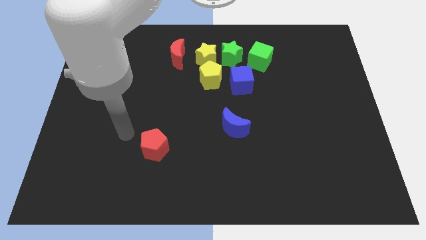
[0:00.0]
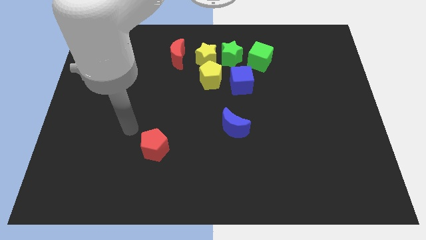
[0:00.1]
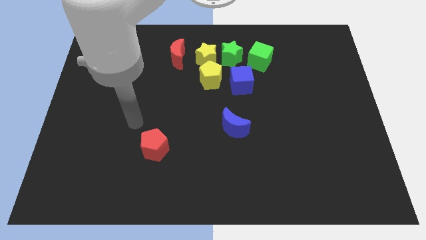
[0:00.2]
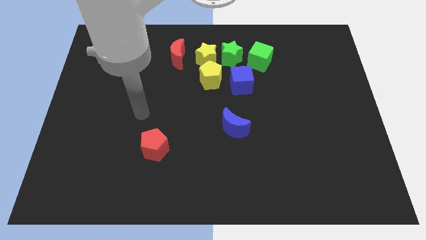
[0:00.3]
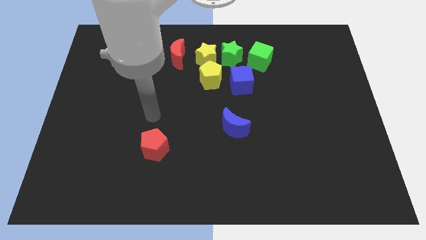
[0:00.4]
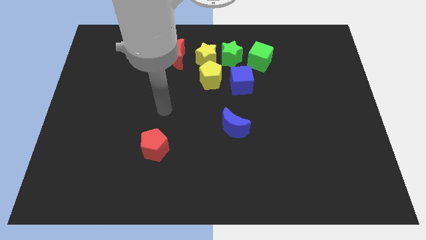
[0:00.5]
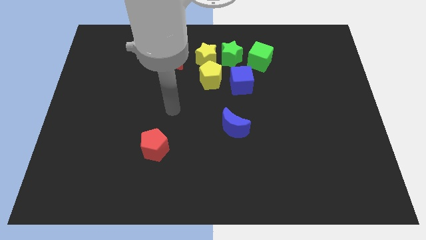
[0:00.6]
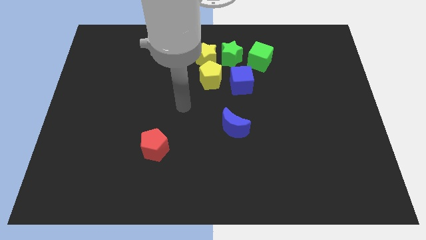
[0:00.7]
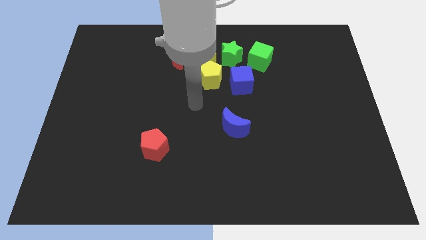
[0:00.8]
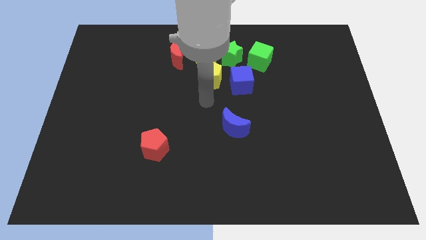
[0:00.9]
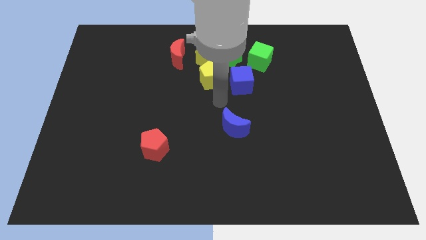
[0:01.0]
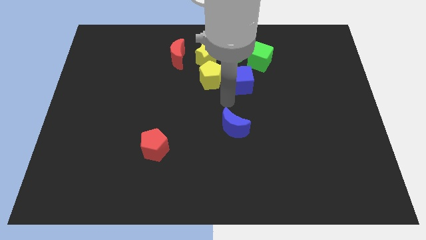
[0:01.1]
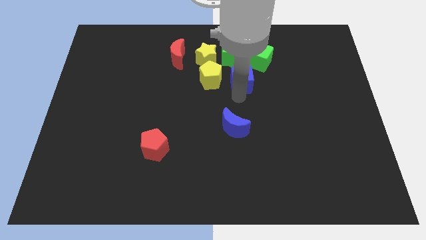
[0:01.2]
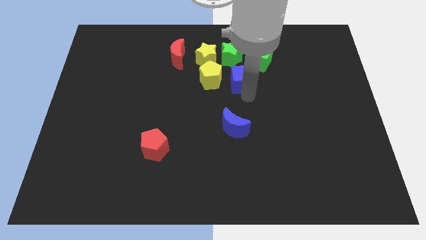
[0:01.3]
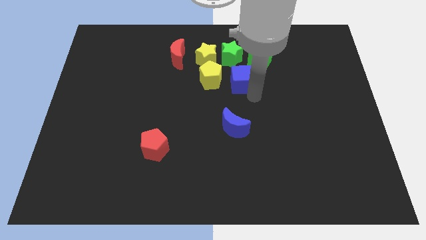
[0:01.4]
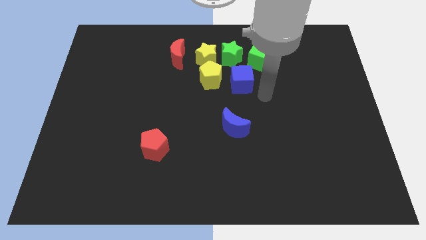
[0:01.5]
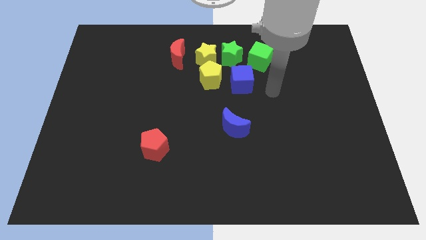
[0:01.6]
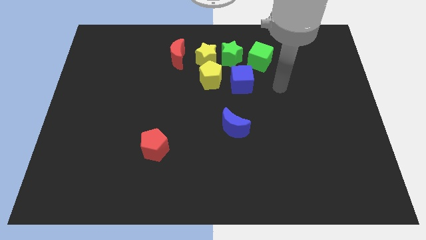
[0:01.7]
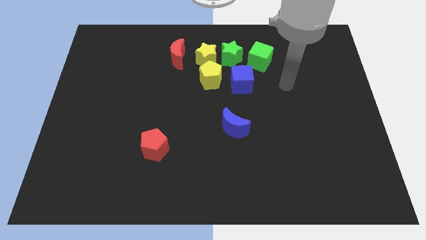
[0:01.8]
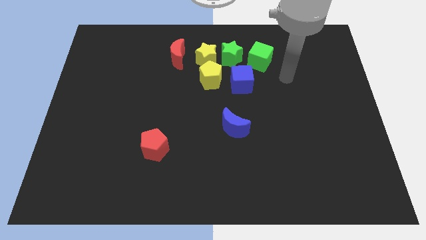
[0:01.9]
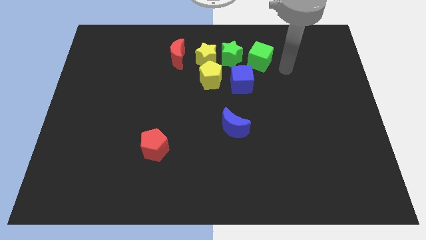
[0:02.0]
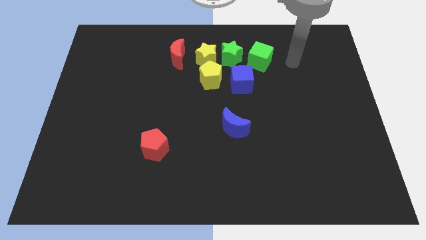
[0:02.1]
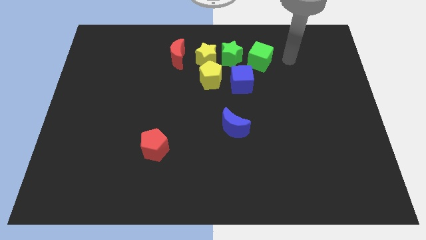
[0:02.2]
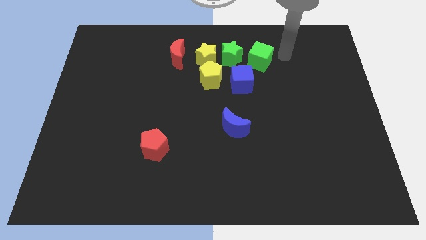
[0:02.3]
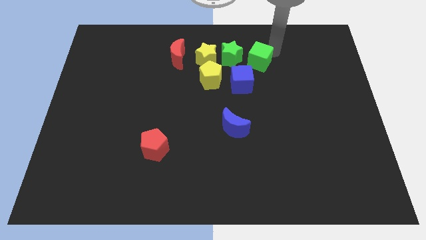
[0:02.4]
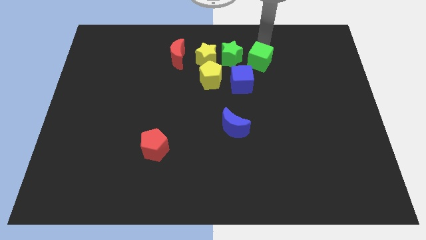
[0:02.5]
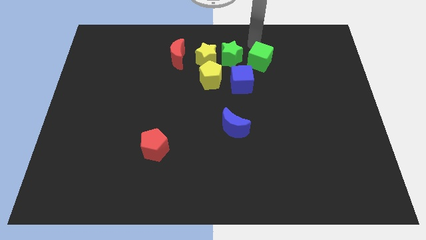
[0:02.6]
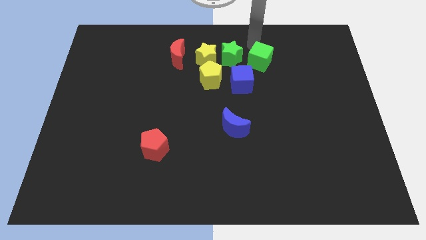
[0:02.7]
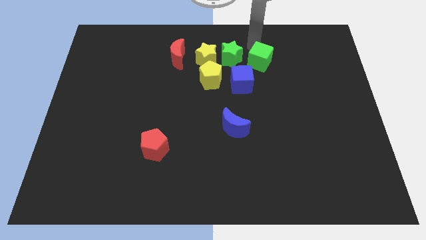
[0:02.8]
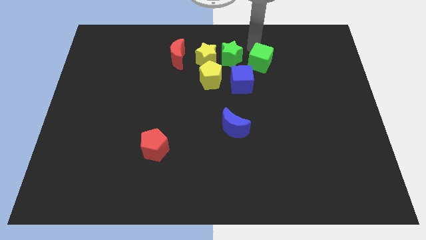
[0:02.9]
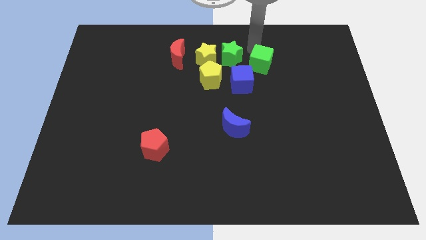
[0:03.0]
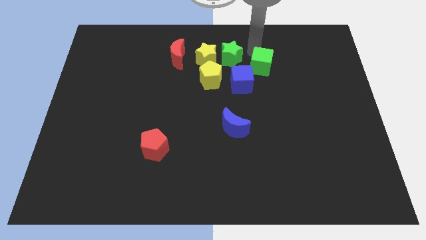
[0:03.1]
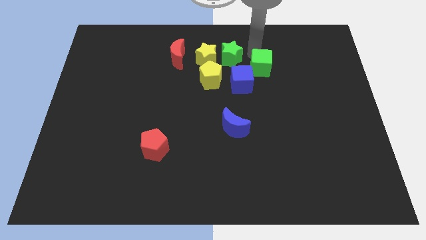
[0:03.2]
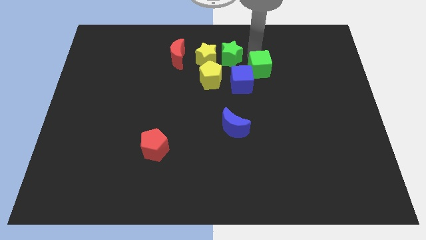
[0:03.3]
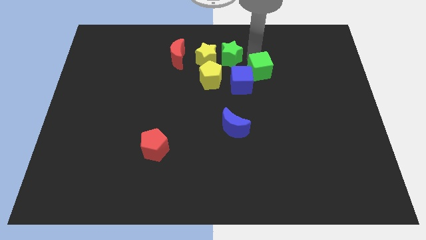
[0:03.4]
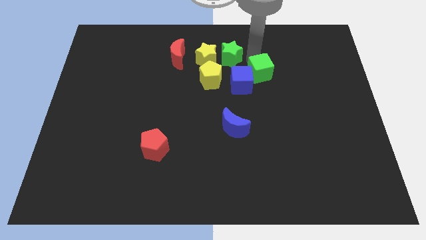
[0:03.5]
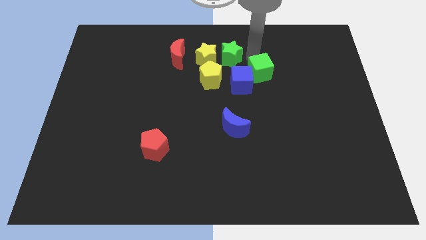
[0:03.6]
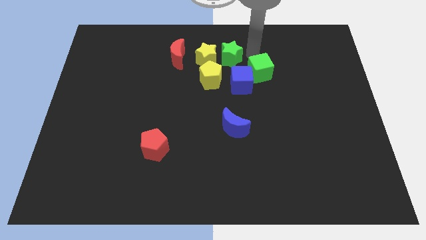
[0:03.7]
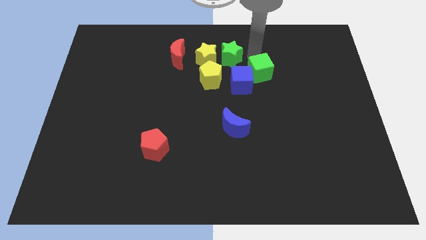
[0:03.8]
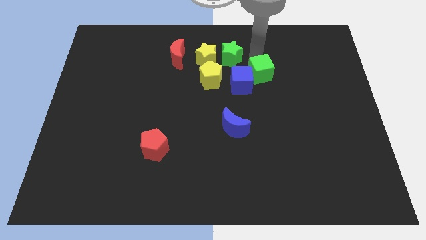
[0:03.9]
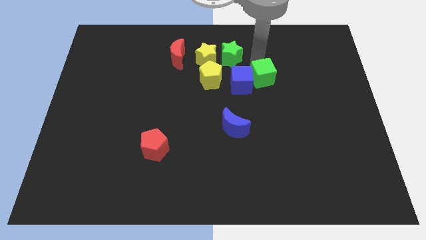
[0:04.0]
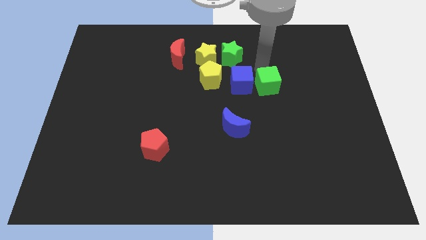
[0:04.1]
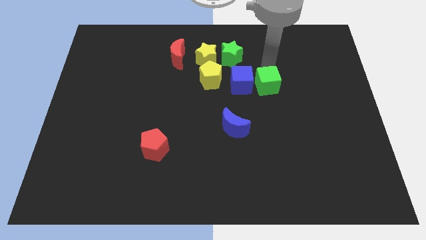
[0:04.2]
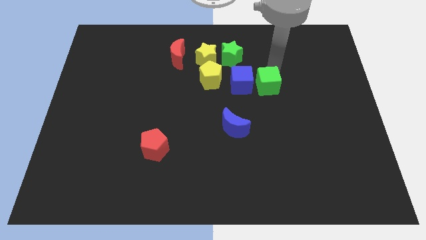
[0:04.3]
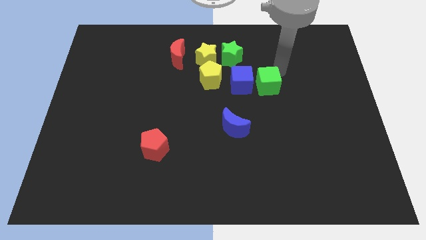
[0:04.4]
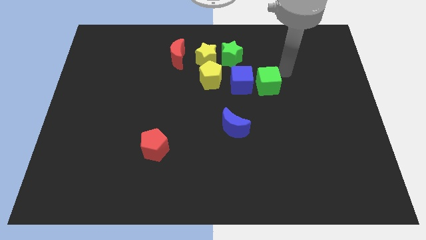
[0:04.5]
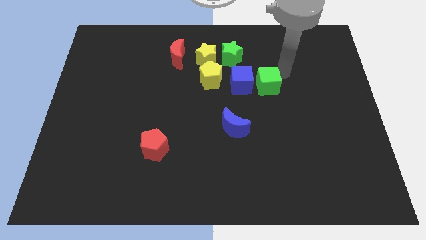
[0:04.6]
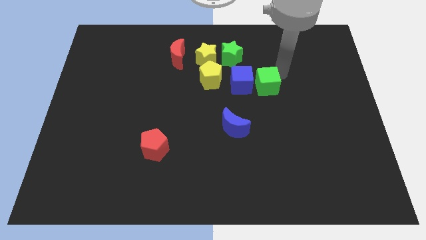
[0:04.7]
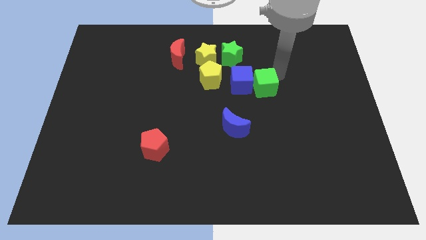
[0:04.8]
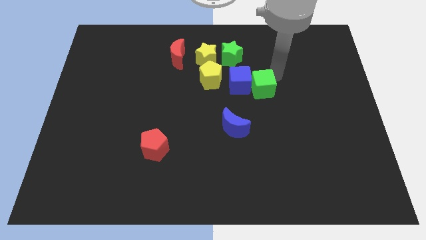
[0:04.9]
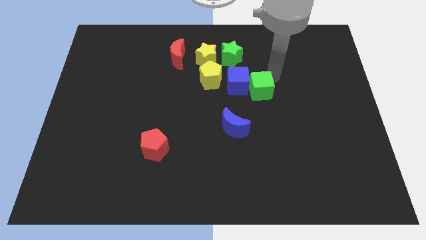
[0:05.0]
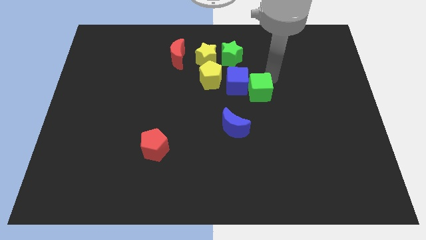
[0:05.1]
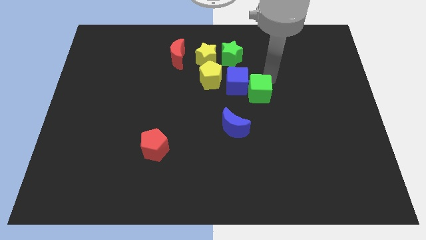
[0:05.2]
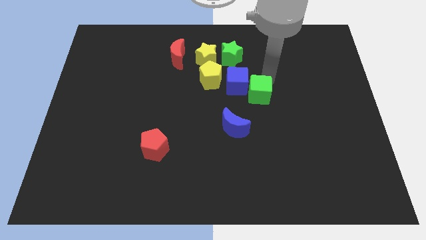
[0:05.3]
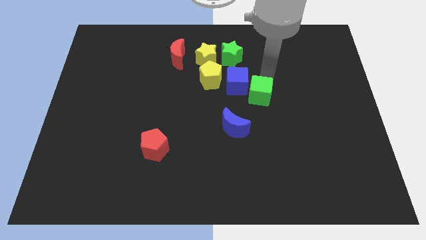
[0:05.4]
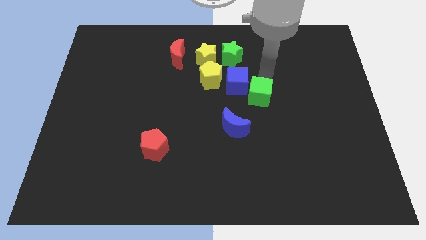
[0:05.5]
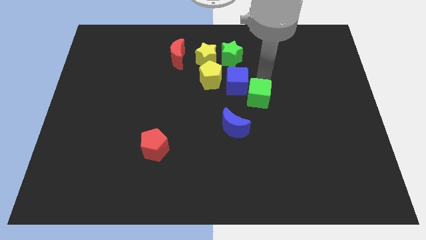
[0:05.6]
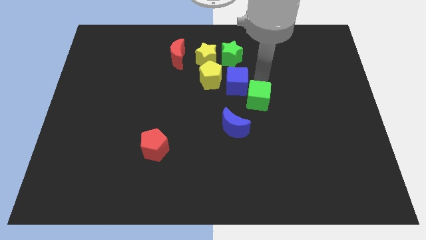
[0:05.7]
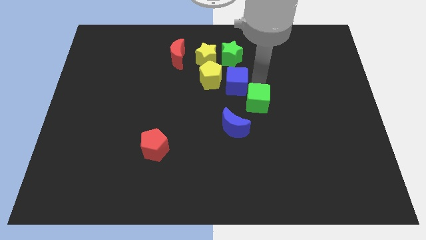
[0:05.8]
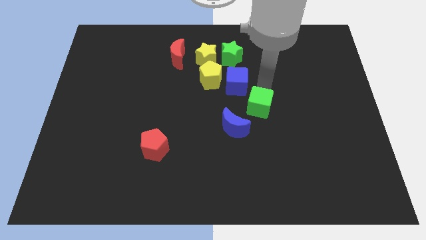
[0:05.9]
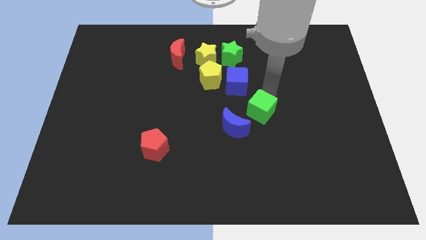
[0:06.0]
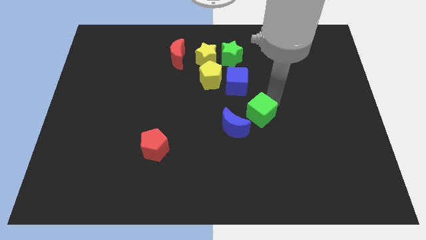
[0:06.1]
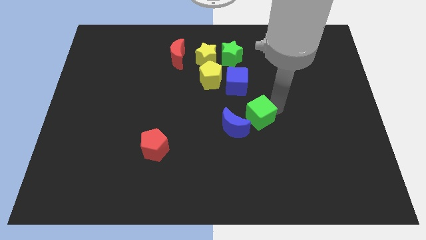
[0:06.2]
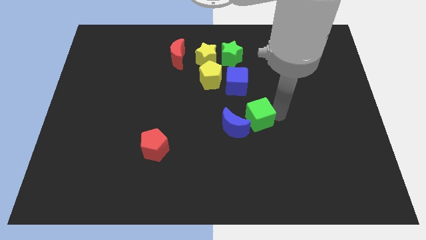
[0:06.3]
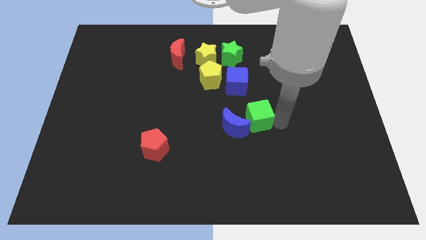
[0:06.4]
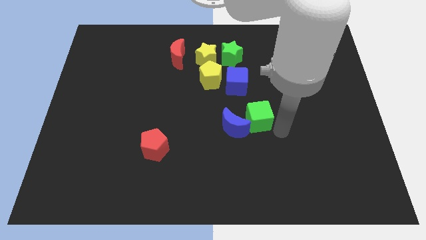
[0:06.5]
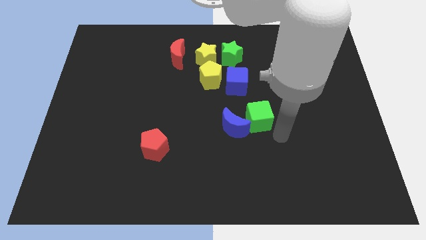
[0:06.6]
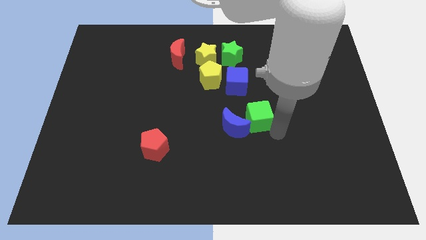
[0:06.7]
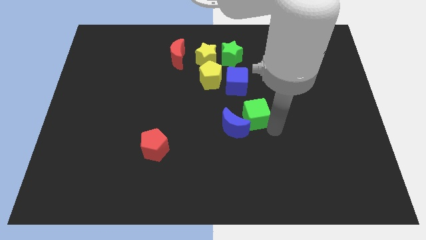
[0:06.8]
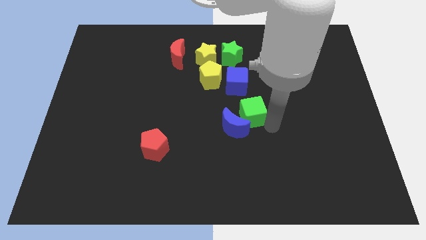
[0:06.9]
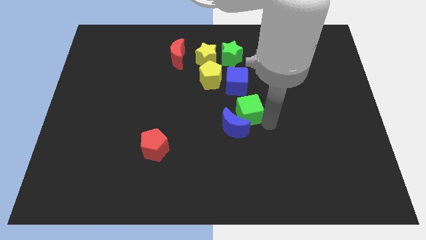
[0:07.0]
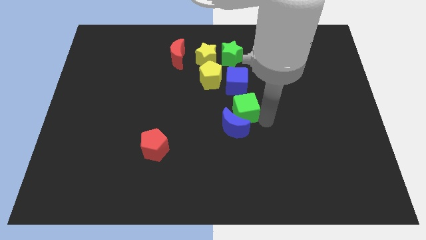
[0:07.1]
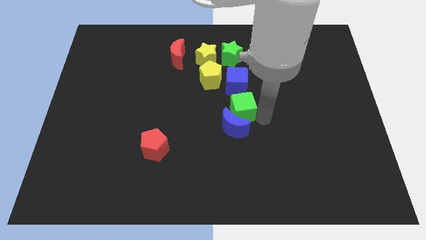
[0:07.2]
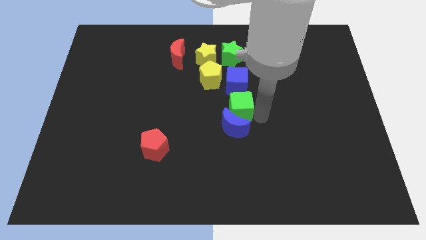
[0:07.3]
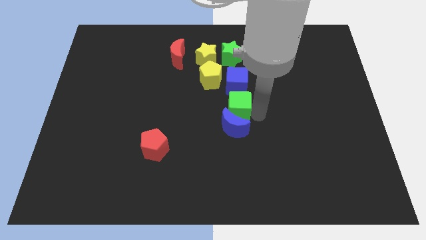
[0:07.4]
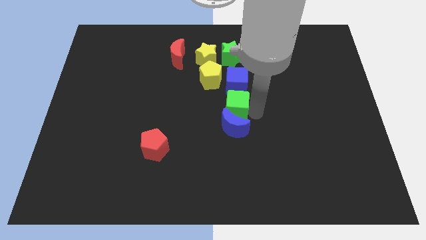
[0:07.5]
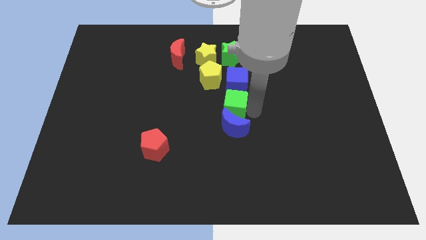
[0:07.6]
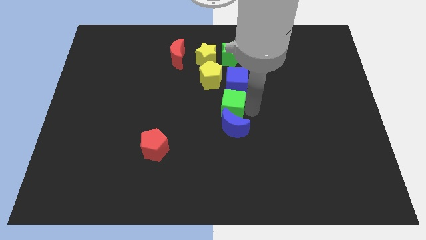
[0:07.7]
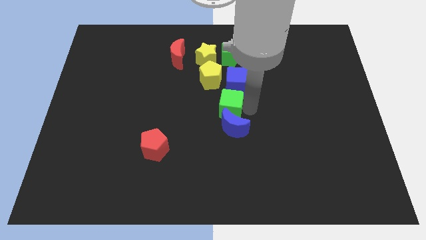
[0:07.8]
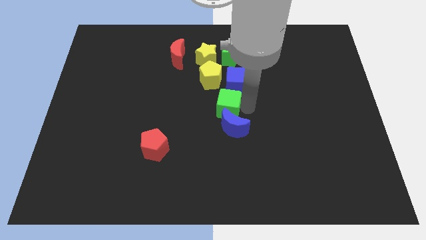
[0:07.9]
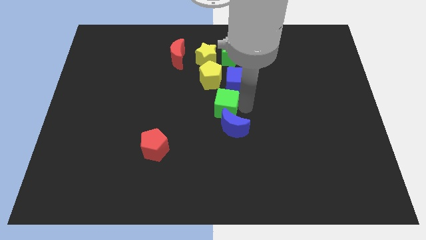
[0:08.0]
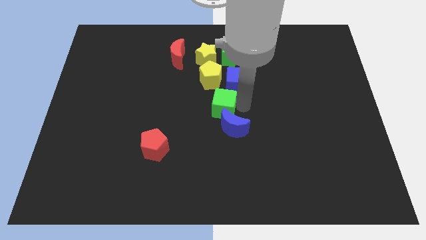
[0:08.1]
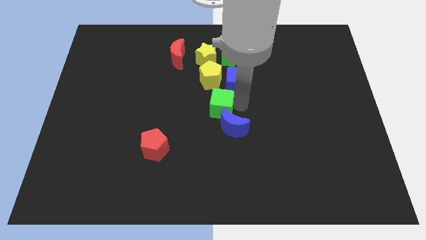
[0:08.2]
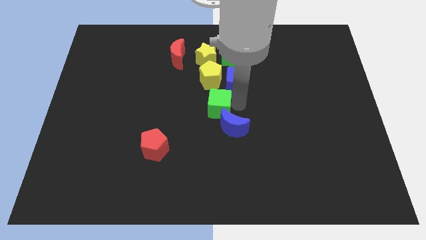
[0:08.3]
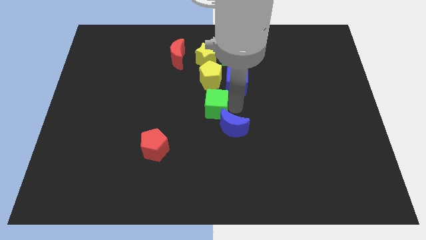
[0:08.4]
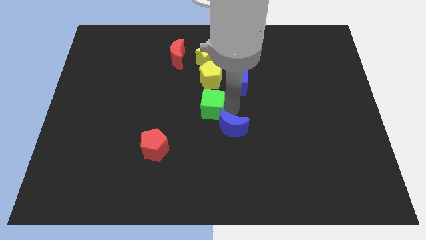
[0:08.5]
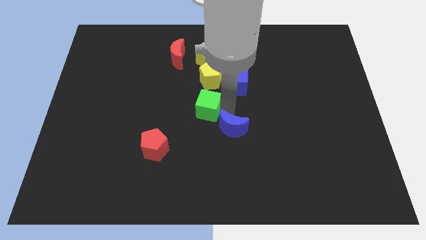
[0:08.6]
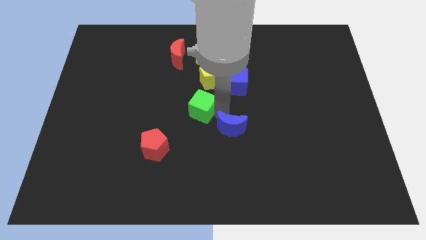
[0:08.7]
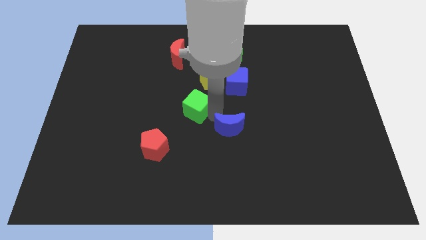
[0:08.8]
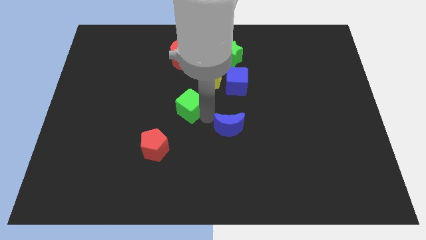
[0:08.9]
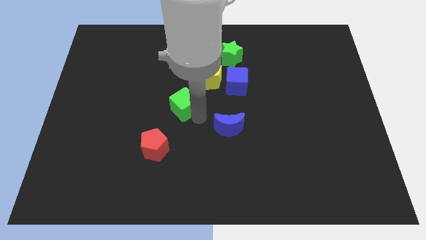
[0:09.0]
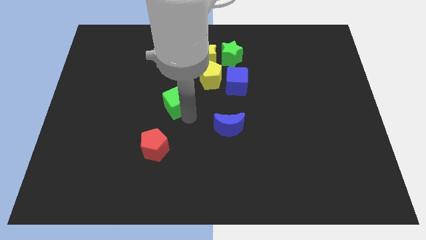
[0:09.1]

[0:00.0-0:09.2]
push the green cube to the bottom of the red moon
